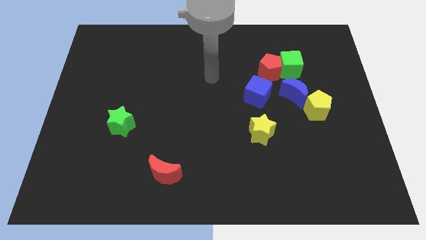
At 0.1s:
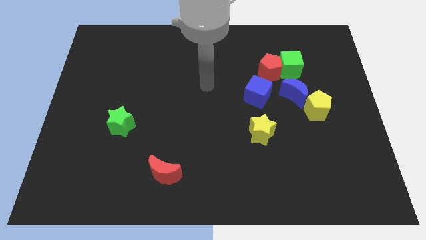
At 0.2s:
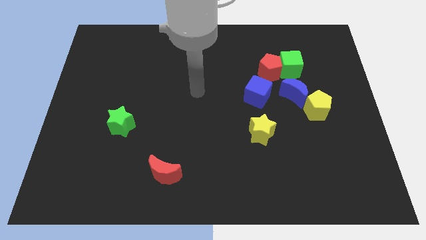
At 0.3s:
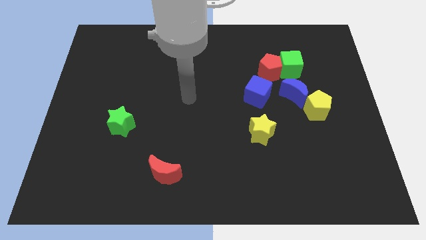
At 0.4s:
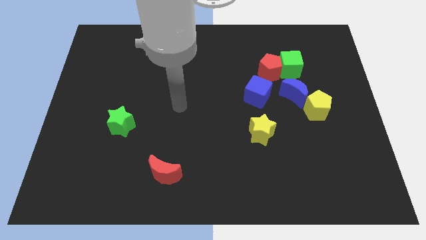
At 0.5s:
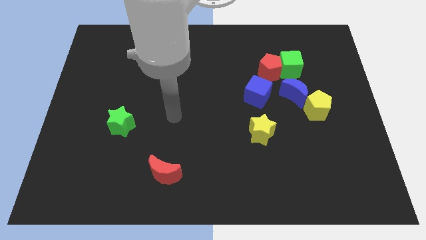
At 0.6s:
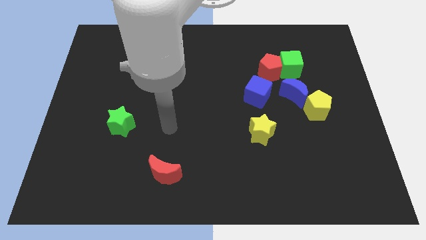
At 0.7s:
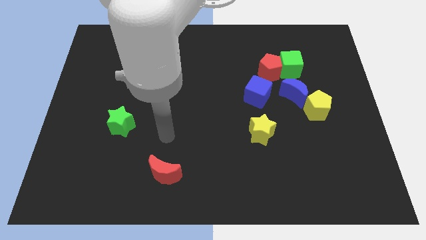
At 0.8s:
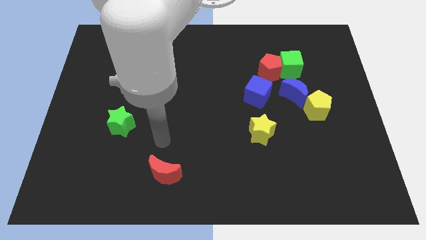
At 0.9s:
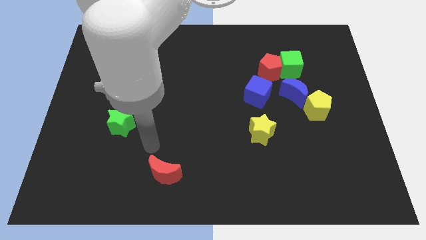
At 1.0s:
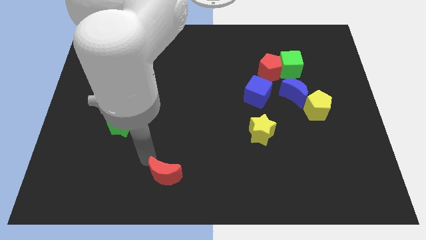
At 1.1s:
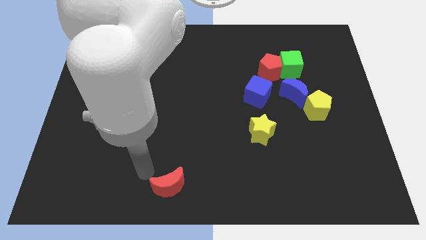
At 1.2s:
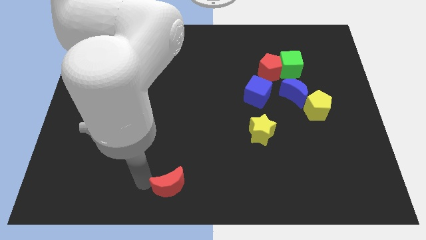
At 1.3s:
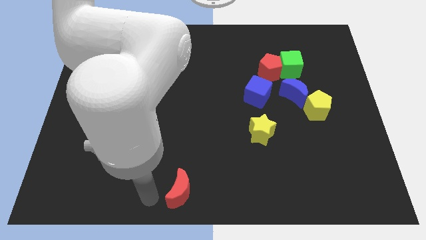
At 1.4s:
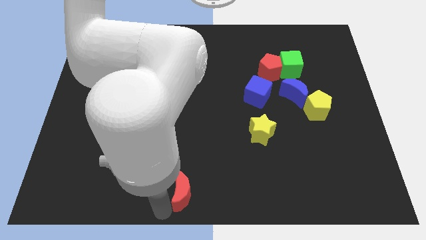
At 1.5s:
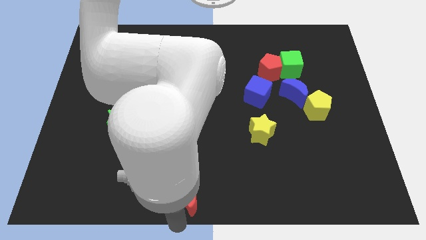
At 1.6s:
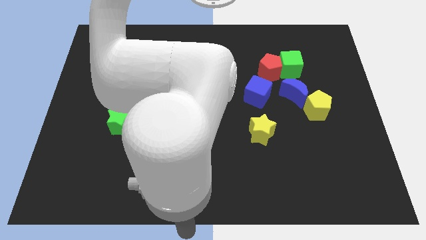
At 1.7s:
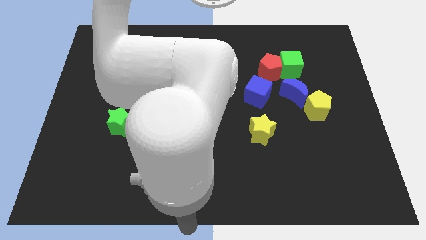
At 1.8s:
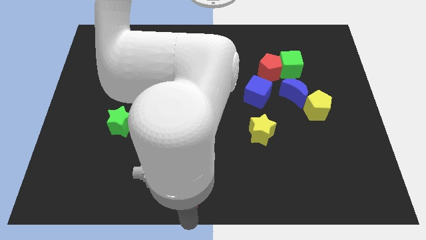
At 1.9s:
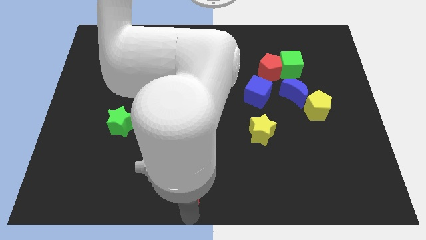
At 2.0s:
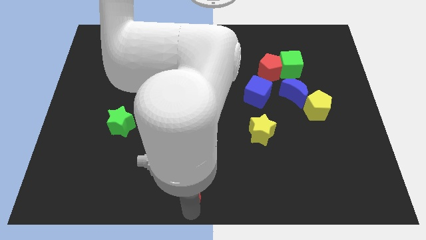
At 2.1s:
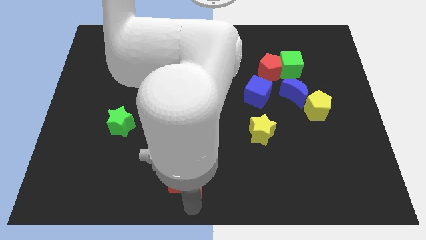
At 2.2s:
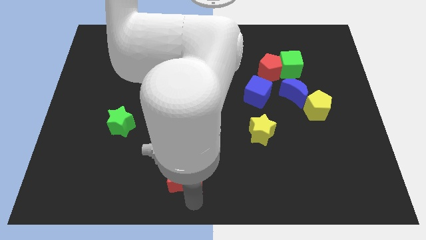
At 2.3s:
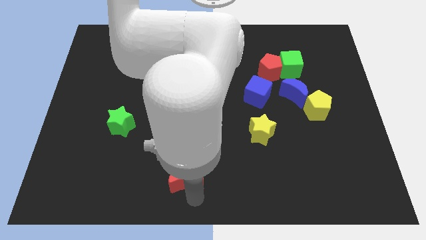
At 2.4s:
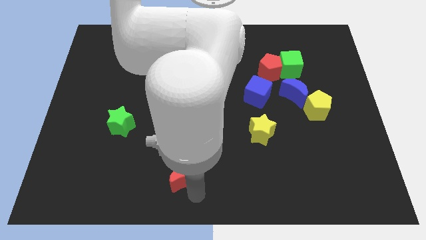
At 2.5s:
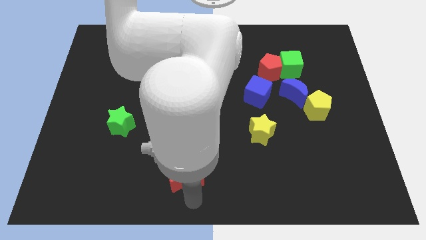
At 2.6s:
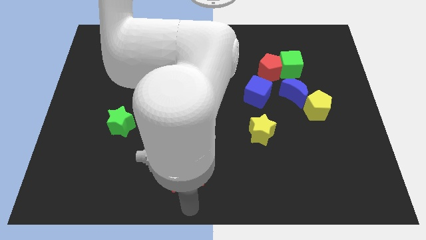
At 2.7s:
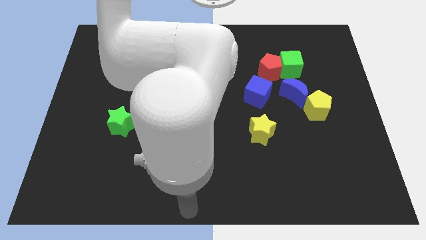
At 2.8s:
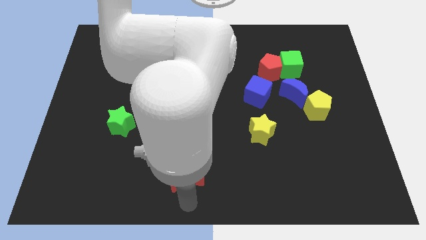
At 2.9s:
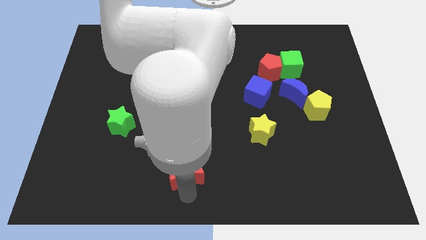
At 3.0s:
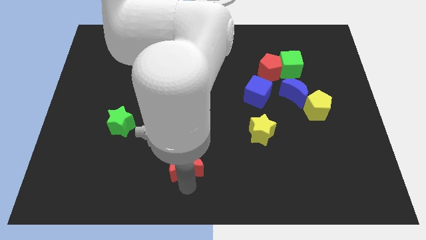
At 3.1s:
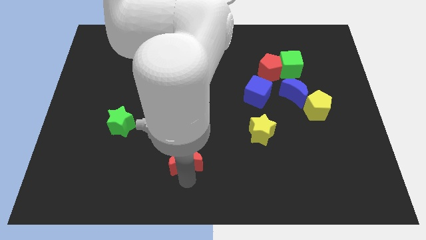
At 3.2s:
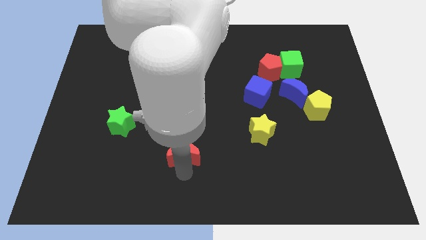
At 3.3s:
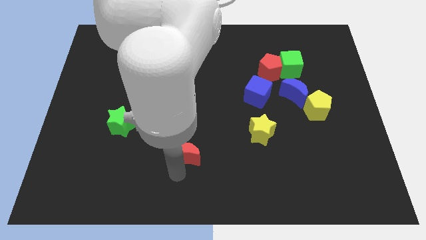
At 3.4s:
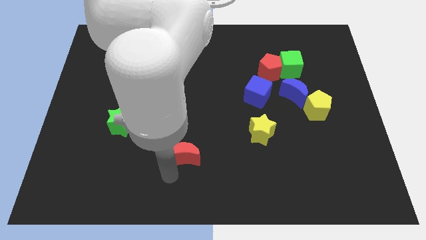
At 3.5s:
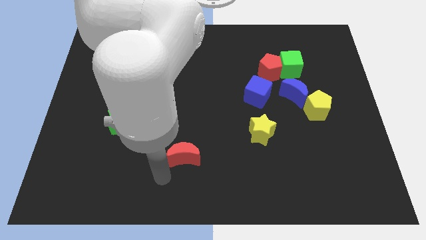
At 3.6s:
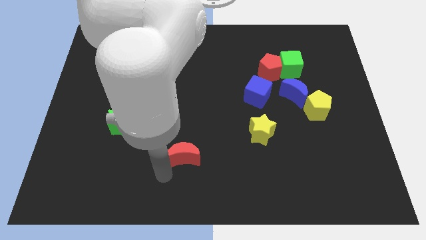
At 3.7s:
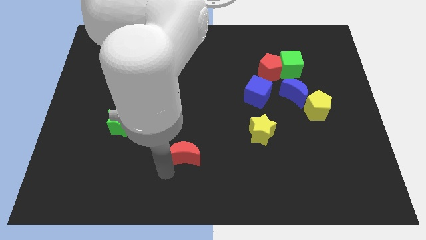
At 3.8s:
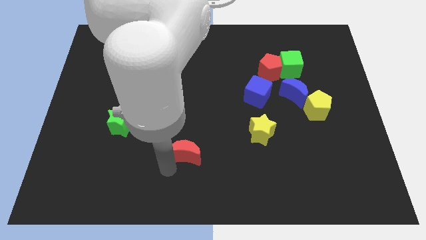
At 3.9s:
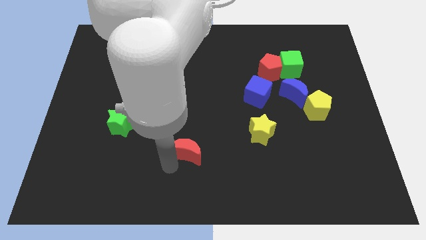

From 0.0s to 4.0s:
slide the red moon a bit up and then to the right

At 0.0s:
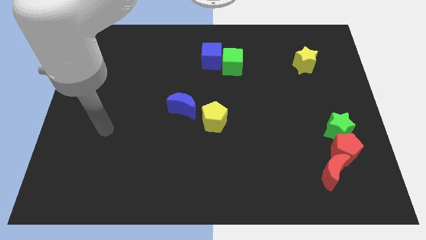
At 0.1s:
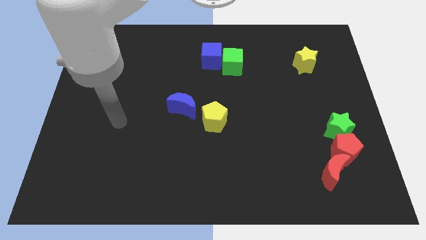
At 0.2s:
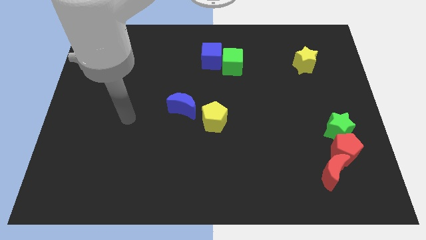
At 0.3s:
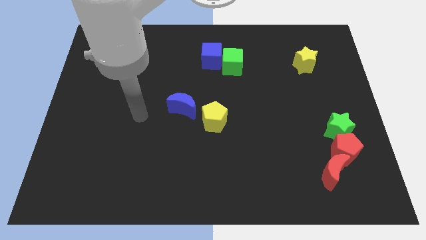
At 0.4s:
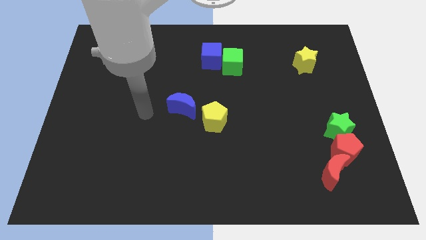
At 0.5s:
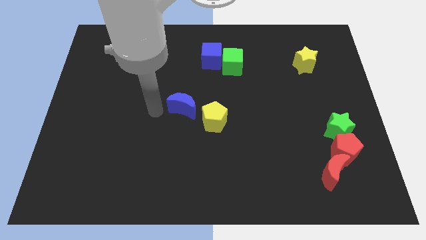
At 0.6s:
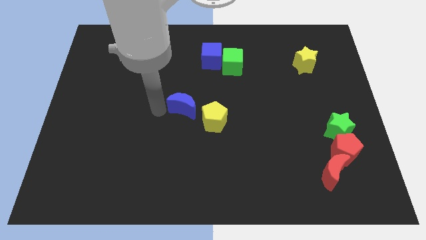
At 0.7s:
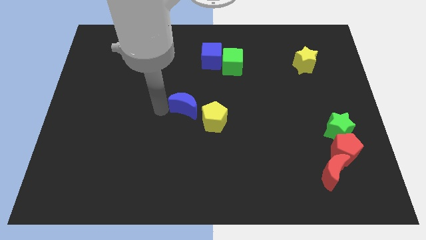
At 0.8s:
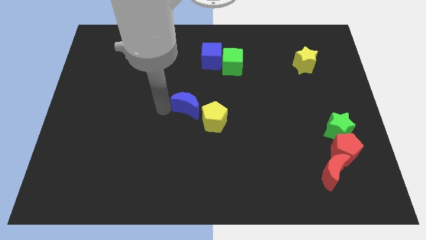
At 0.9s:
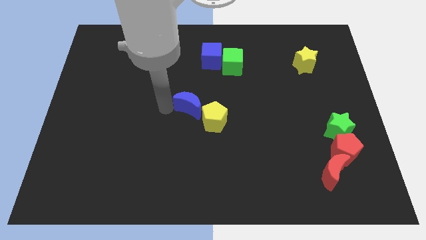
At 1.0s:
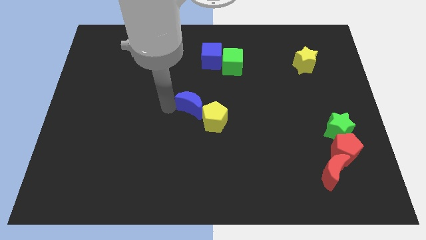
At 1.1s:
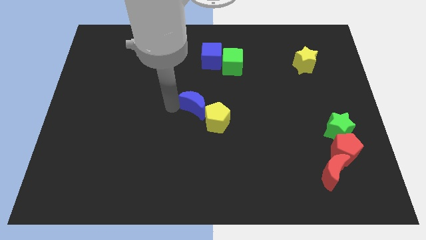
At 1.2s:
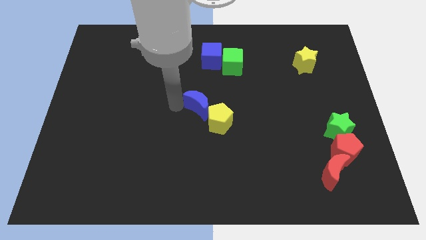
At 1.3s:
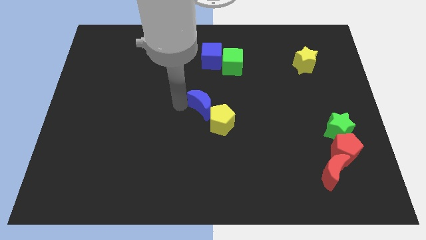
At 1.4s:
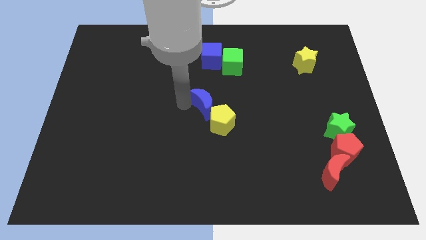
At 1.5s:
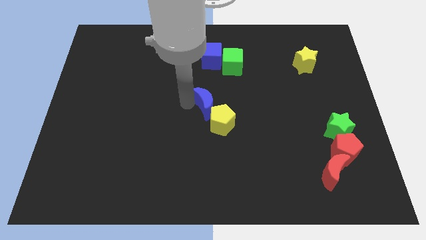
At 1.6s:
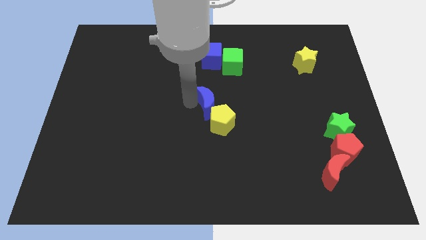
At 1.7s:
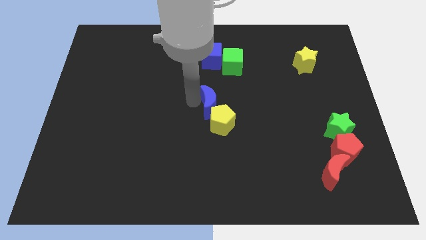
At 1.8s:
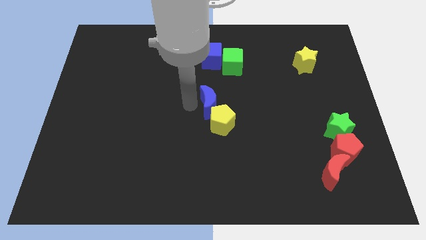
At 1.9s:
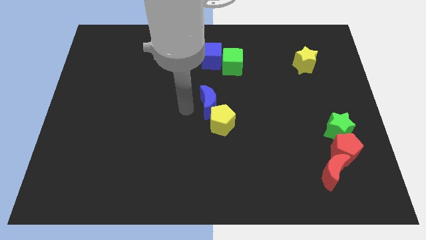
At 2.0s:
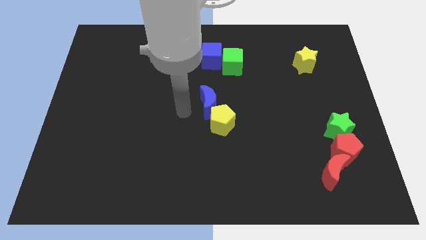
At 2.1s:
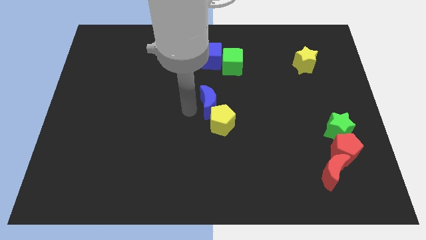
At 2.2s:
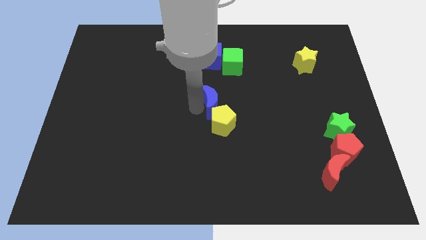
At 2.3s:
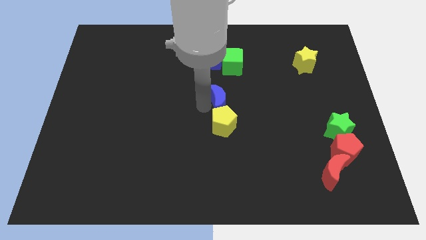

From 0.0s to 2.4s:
slightly move the blue moon to the right

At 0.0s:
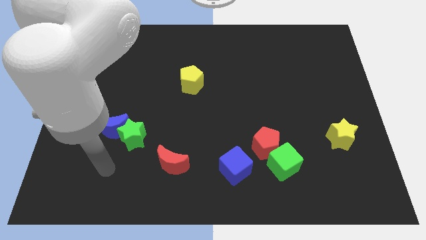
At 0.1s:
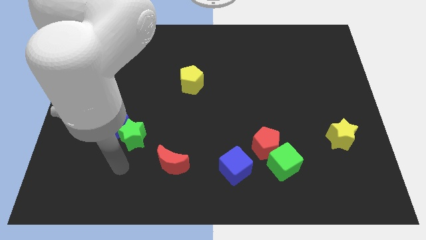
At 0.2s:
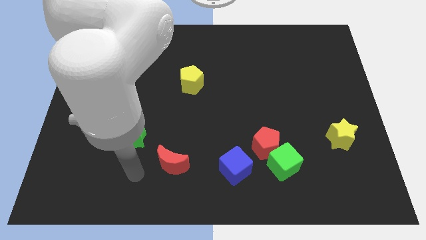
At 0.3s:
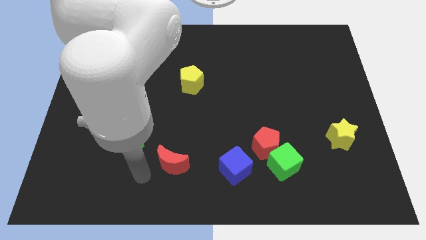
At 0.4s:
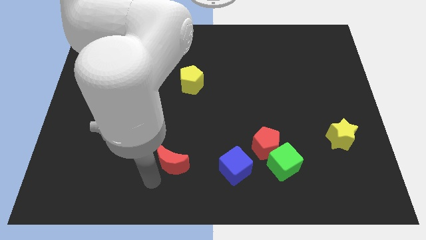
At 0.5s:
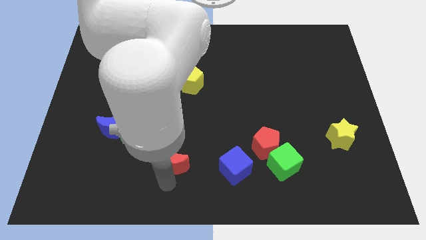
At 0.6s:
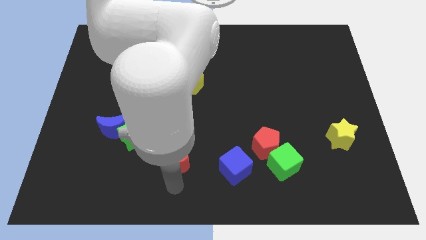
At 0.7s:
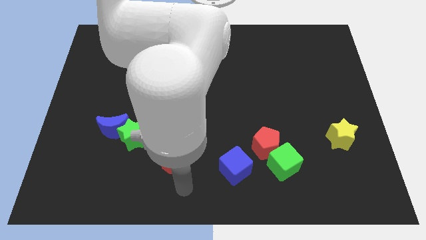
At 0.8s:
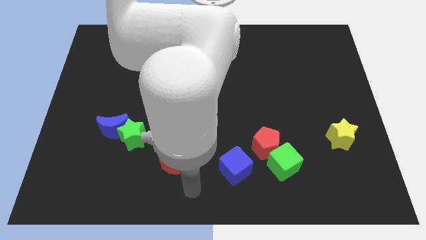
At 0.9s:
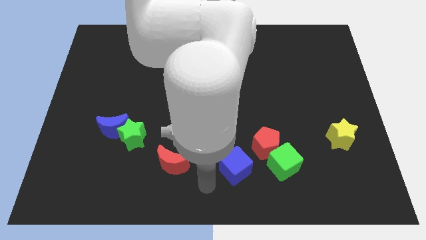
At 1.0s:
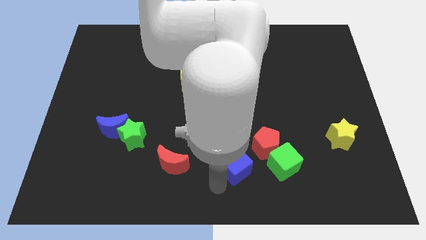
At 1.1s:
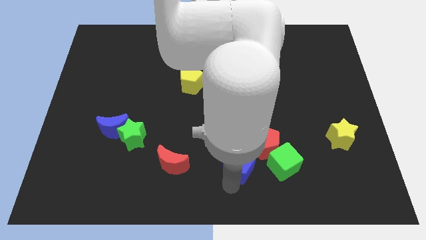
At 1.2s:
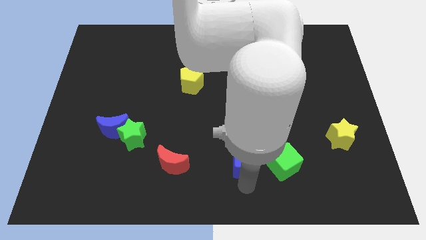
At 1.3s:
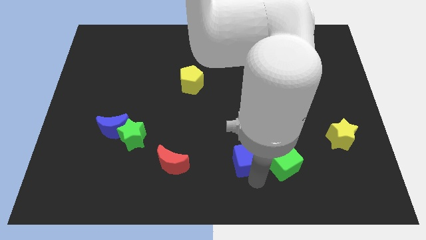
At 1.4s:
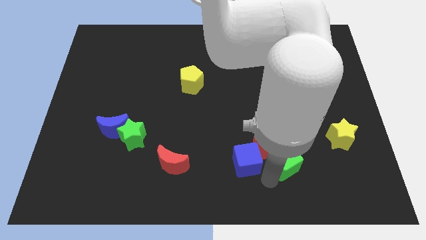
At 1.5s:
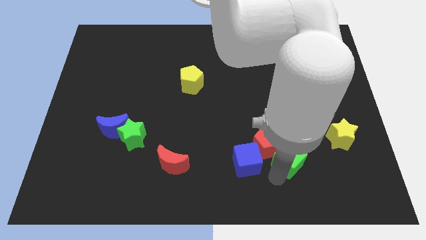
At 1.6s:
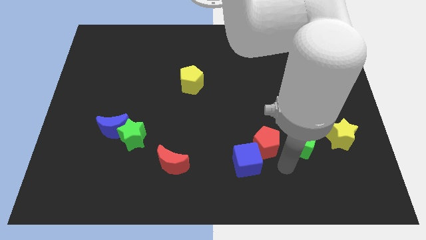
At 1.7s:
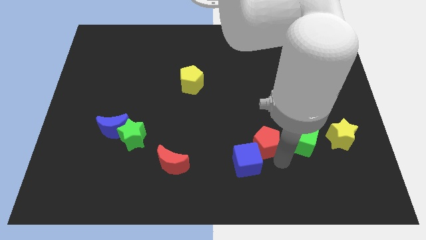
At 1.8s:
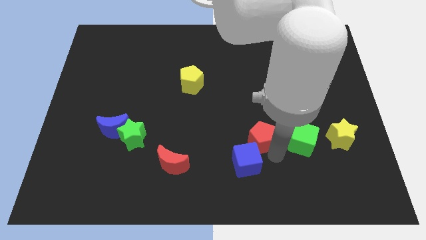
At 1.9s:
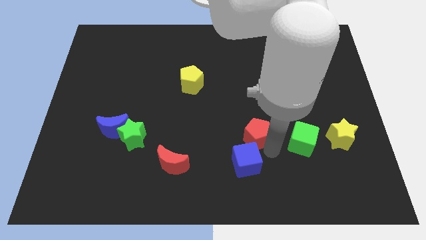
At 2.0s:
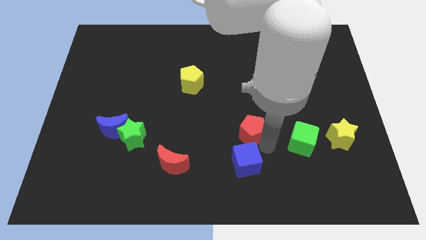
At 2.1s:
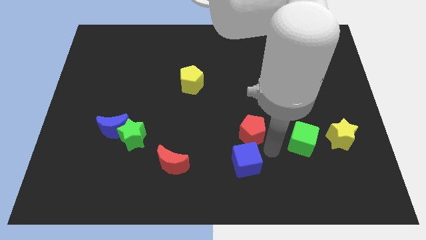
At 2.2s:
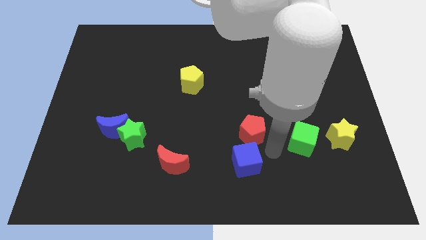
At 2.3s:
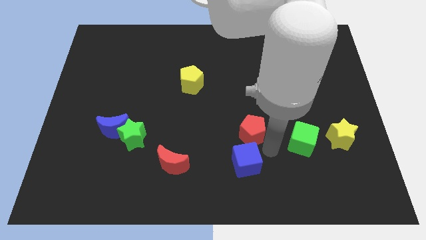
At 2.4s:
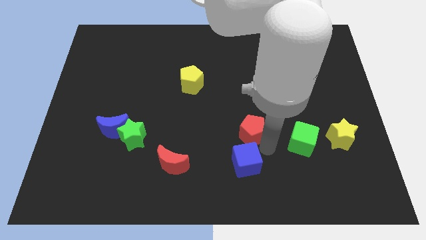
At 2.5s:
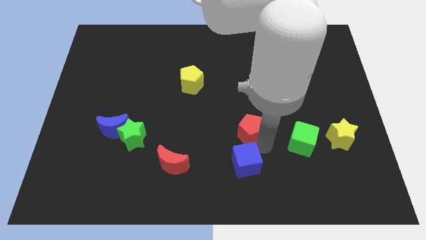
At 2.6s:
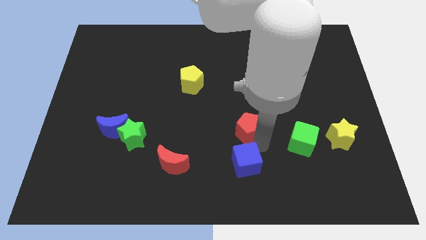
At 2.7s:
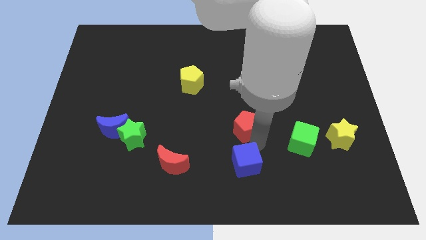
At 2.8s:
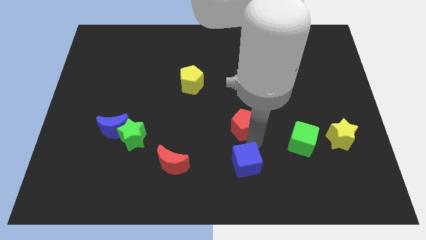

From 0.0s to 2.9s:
push the red pentagon slightly diagonally up and left
